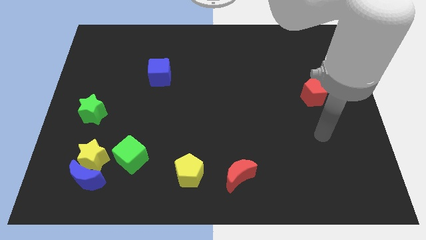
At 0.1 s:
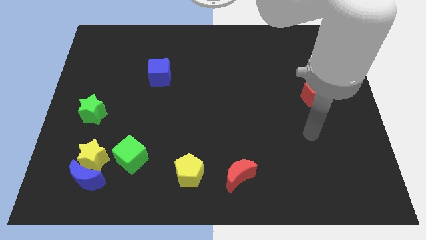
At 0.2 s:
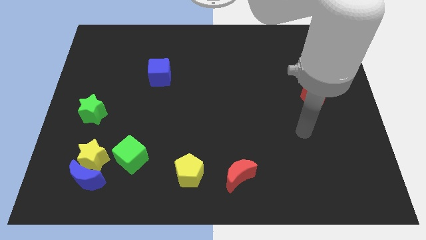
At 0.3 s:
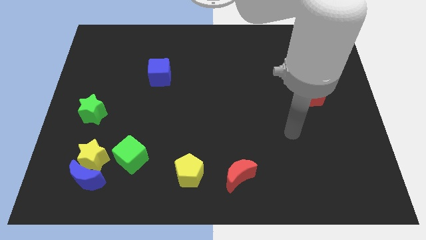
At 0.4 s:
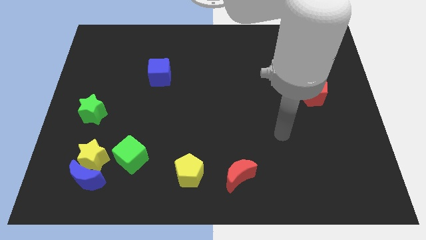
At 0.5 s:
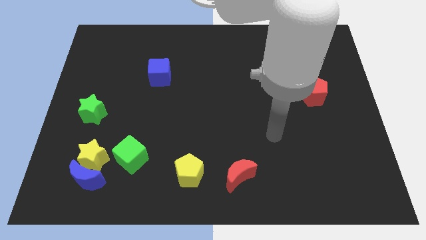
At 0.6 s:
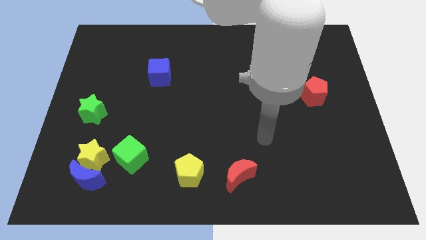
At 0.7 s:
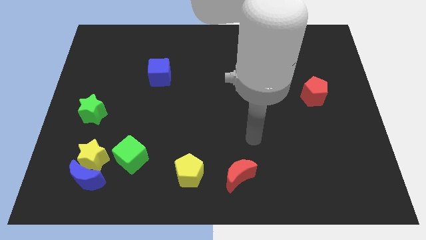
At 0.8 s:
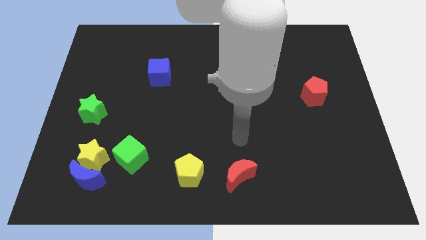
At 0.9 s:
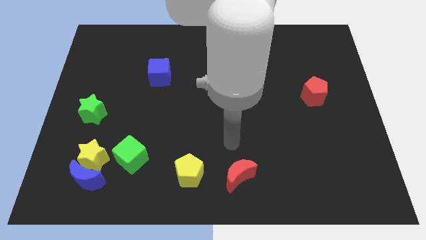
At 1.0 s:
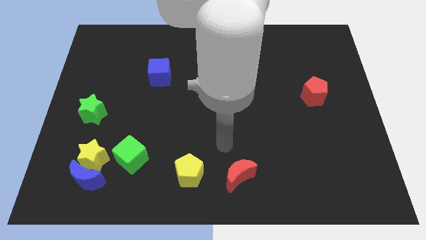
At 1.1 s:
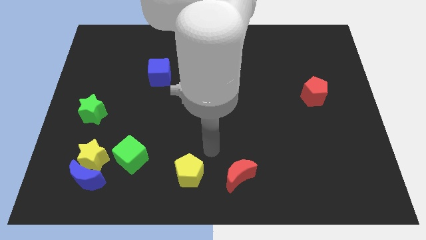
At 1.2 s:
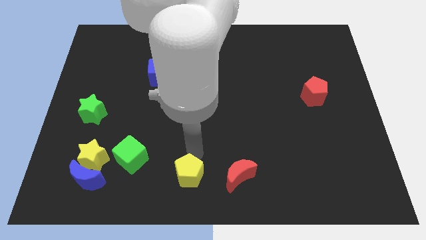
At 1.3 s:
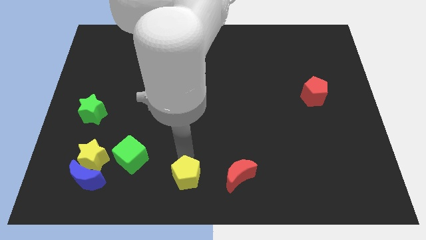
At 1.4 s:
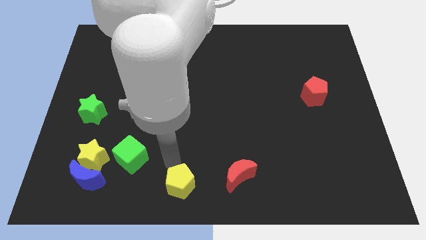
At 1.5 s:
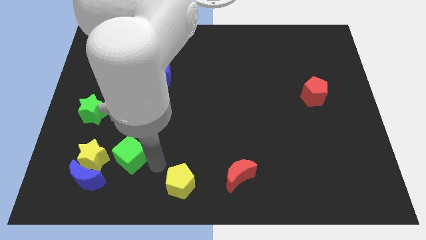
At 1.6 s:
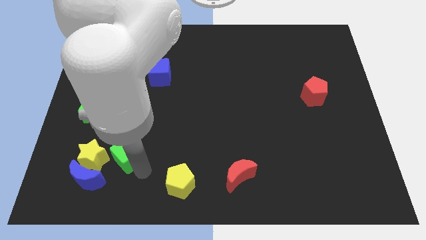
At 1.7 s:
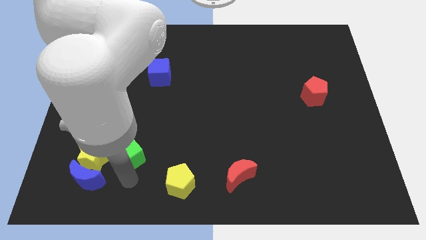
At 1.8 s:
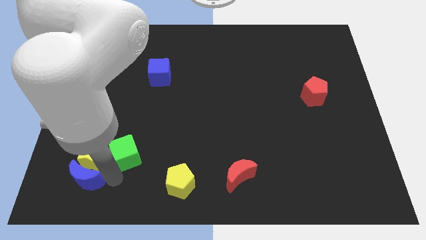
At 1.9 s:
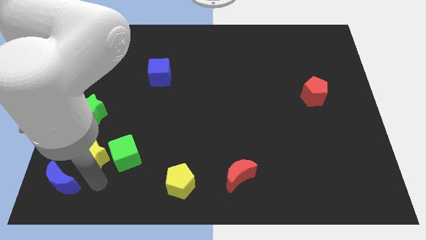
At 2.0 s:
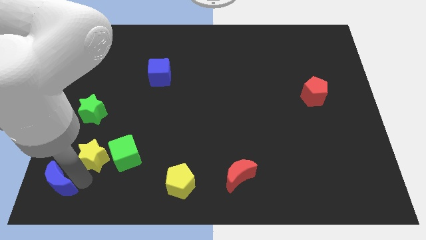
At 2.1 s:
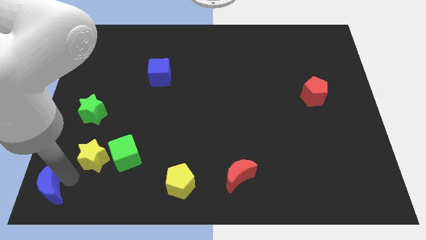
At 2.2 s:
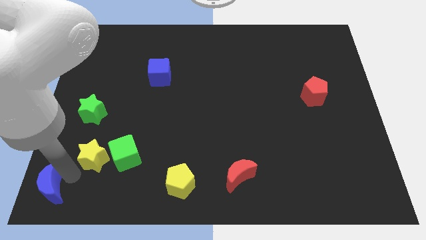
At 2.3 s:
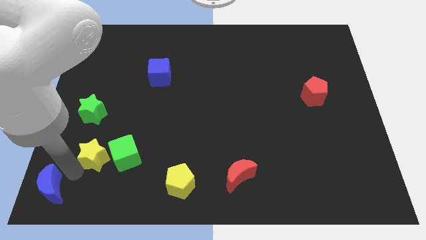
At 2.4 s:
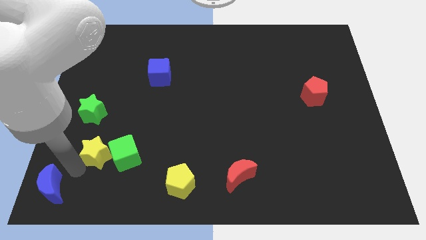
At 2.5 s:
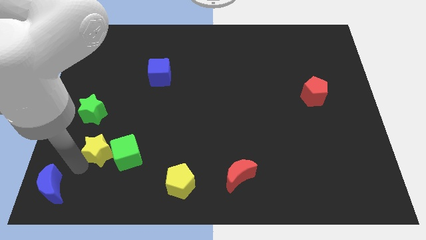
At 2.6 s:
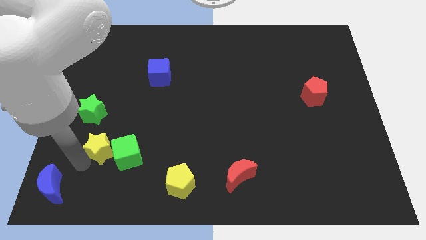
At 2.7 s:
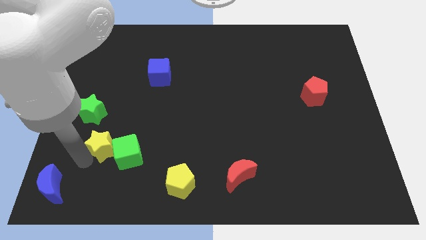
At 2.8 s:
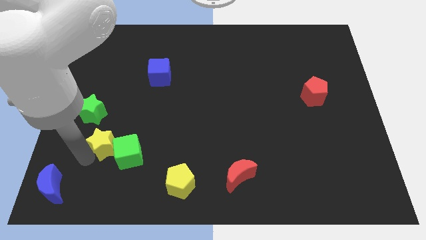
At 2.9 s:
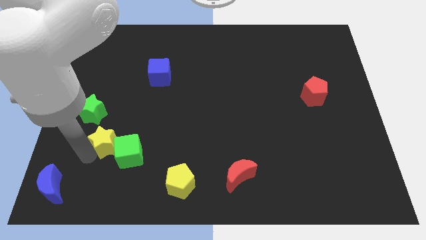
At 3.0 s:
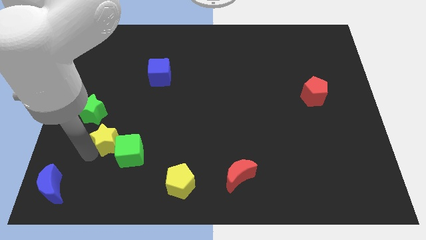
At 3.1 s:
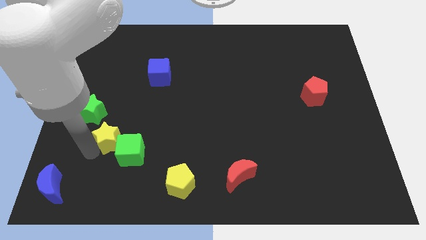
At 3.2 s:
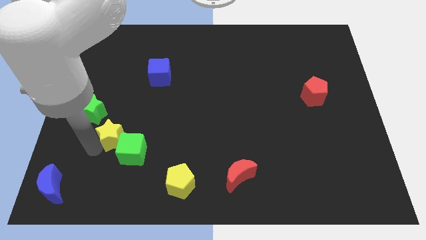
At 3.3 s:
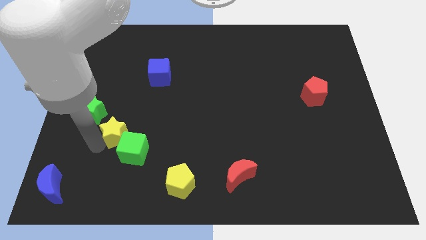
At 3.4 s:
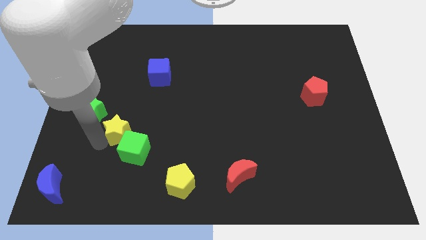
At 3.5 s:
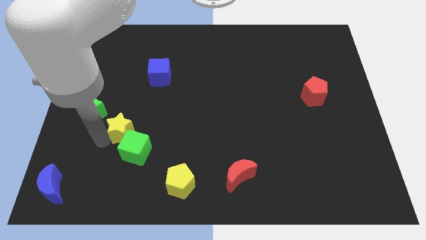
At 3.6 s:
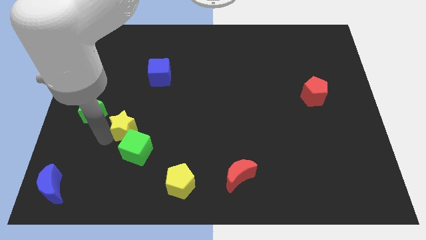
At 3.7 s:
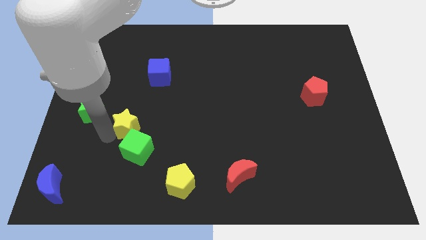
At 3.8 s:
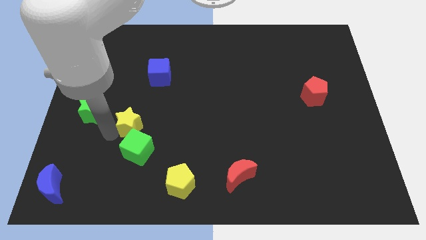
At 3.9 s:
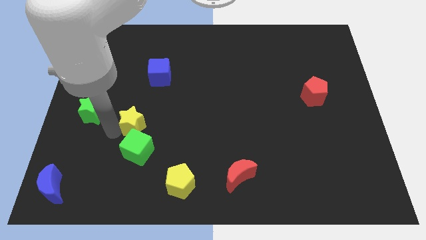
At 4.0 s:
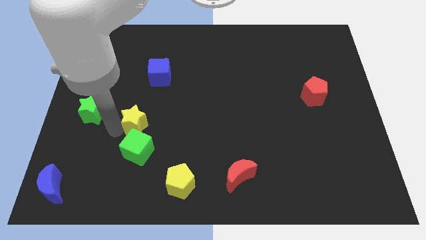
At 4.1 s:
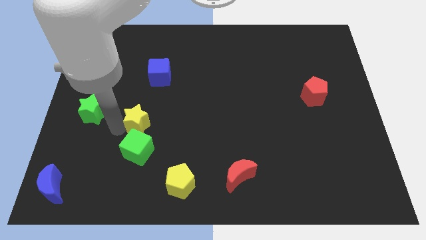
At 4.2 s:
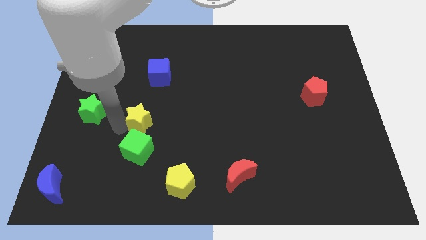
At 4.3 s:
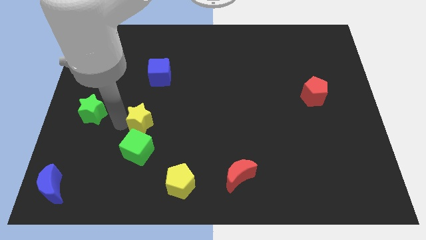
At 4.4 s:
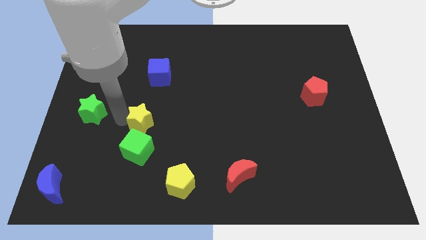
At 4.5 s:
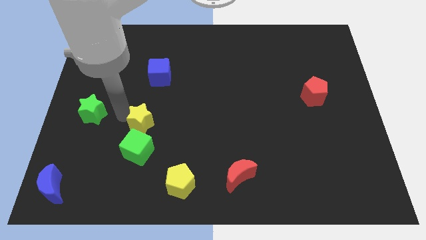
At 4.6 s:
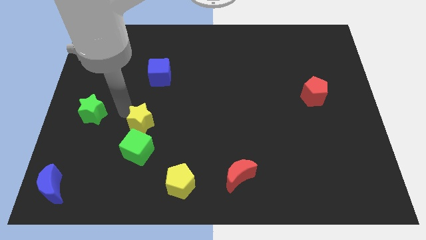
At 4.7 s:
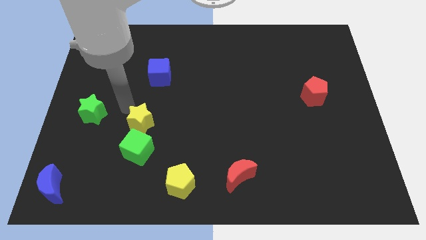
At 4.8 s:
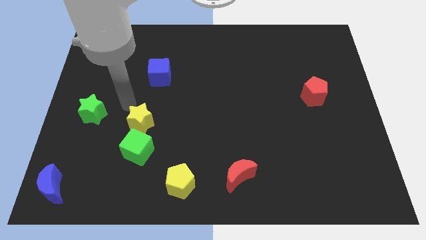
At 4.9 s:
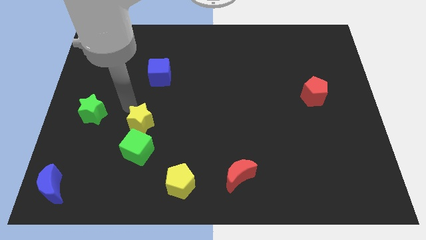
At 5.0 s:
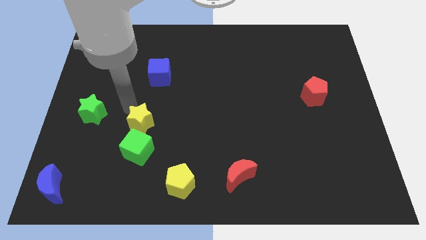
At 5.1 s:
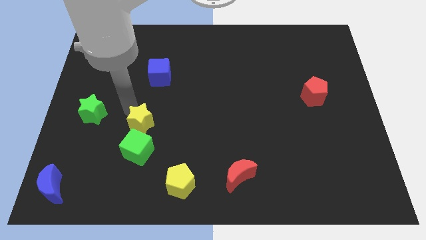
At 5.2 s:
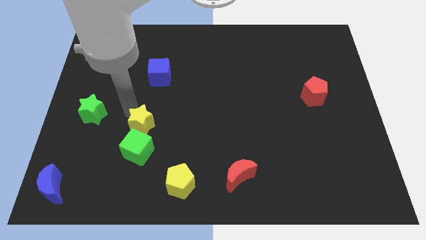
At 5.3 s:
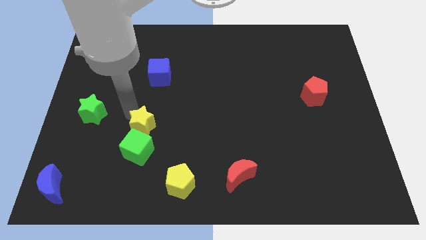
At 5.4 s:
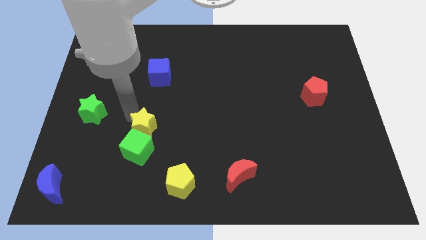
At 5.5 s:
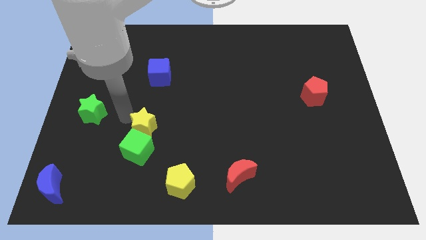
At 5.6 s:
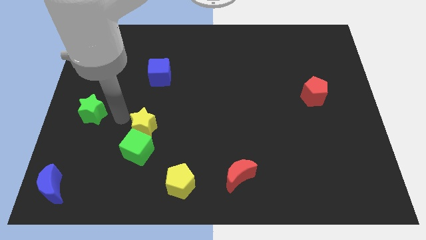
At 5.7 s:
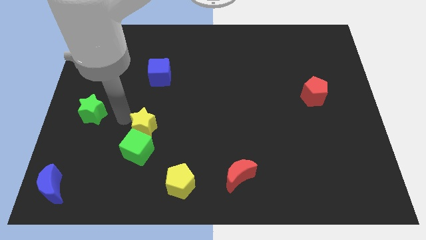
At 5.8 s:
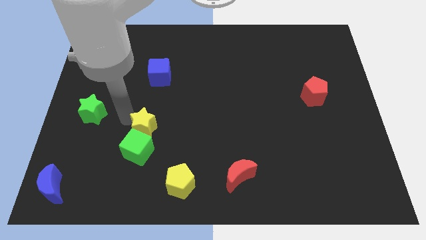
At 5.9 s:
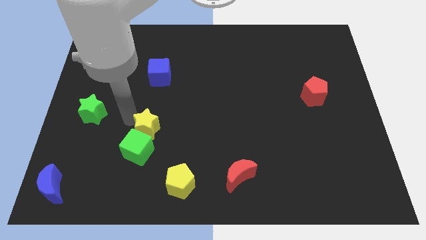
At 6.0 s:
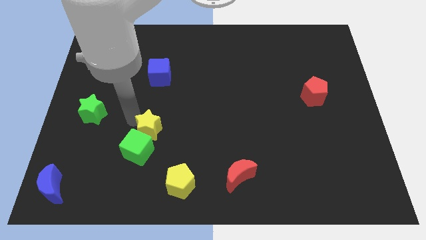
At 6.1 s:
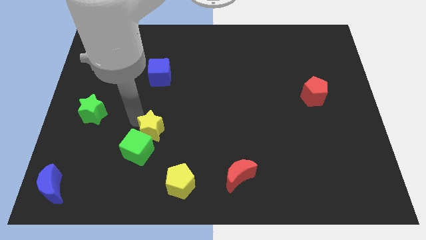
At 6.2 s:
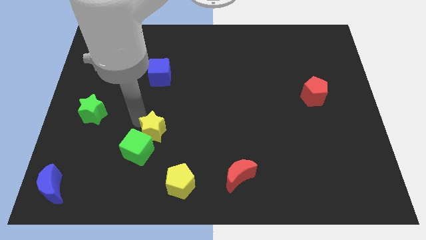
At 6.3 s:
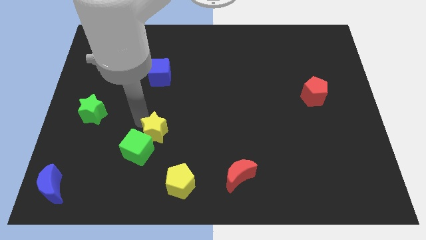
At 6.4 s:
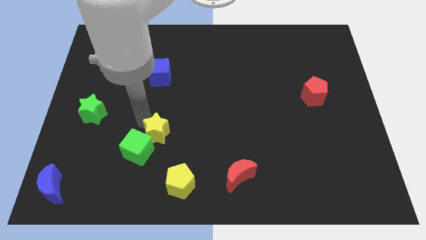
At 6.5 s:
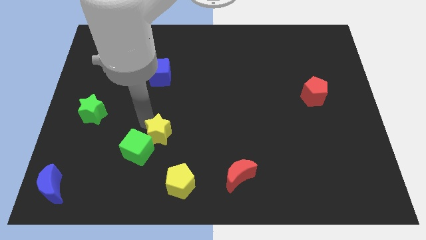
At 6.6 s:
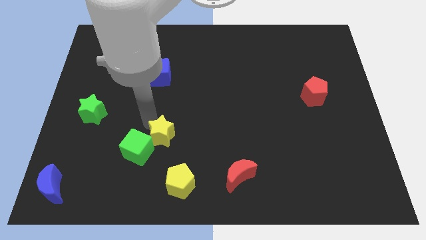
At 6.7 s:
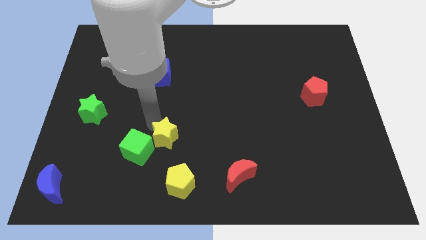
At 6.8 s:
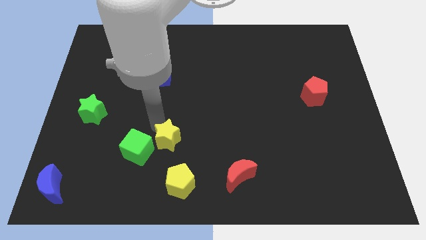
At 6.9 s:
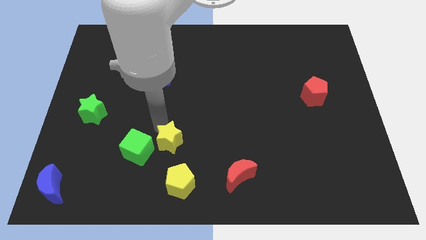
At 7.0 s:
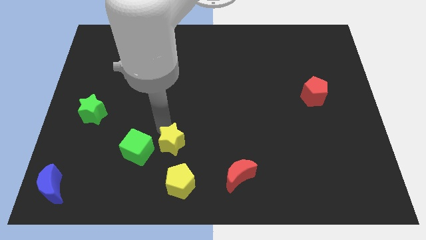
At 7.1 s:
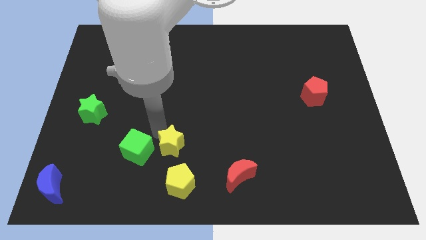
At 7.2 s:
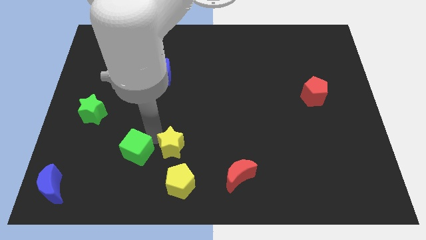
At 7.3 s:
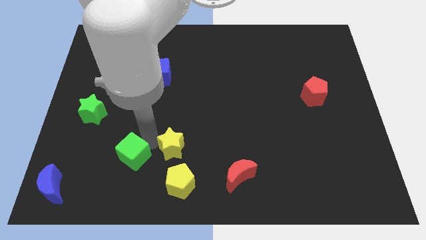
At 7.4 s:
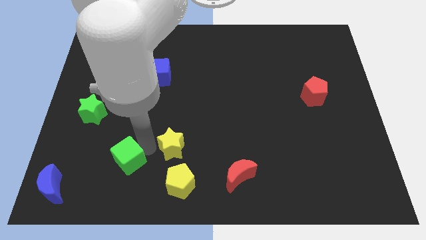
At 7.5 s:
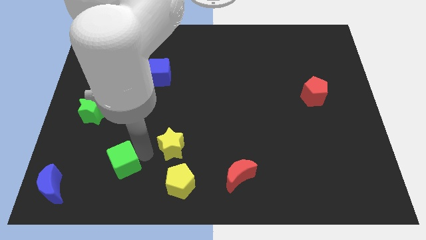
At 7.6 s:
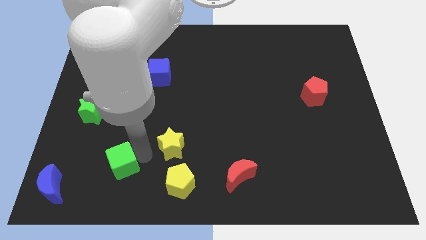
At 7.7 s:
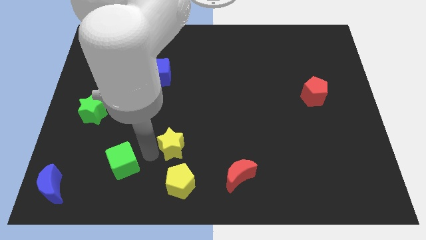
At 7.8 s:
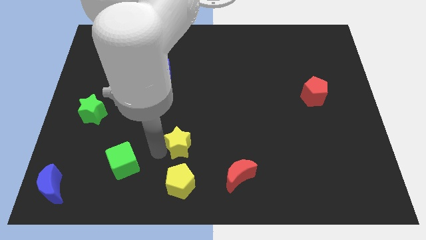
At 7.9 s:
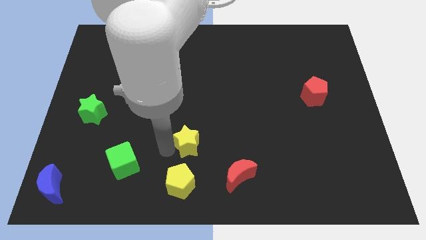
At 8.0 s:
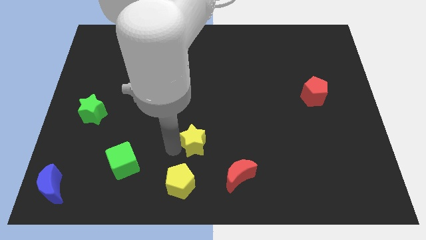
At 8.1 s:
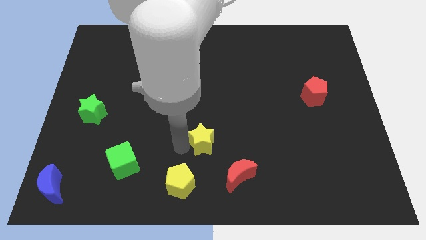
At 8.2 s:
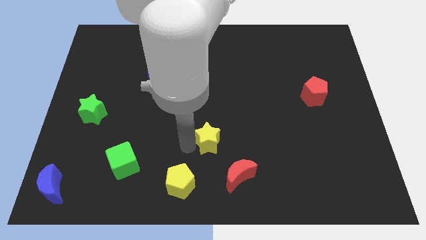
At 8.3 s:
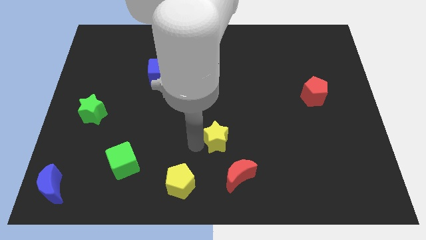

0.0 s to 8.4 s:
put the yellow star to the top side of the red moon
